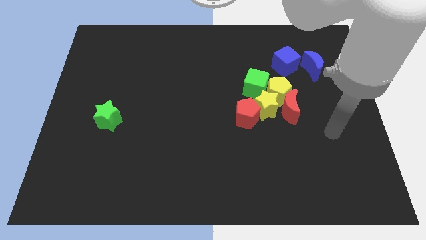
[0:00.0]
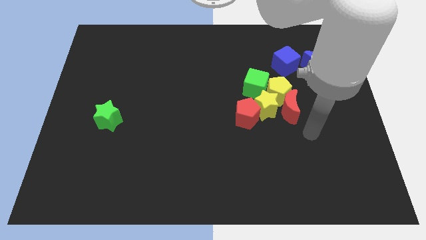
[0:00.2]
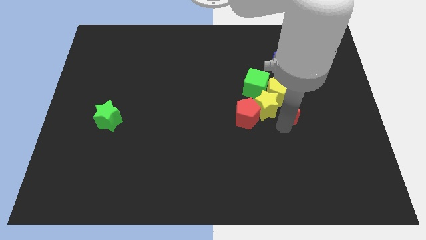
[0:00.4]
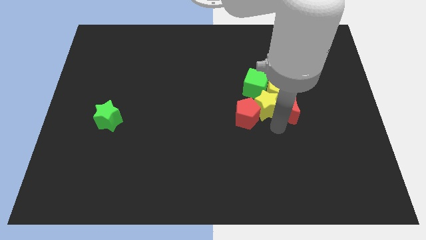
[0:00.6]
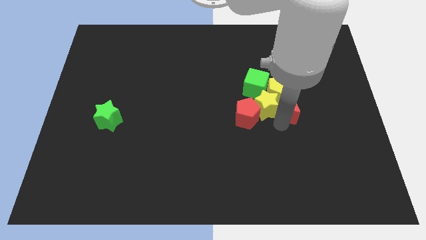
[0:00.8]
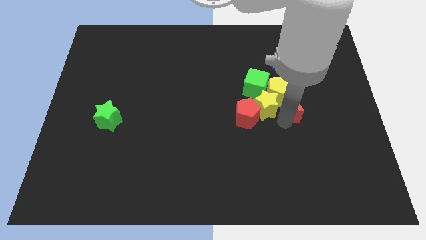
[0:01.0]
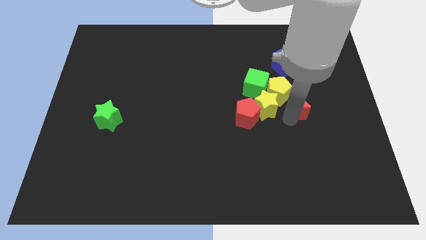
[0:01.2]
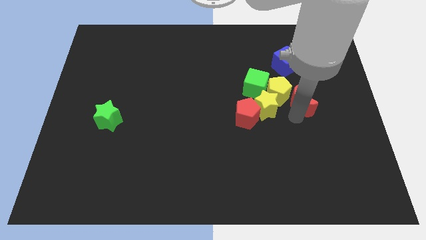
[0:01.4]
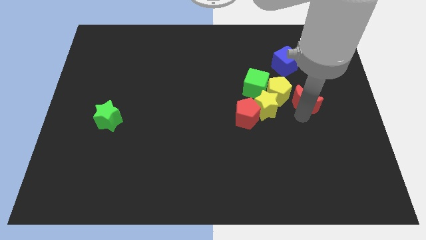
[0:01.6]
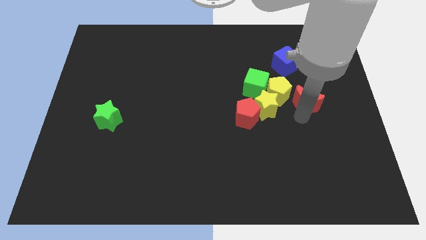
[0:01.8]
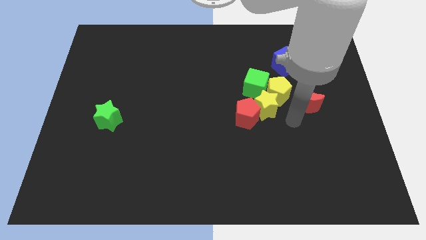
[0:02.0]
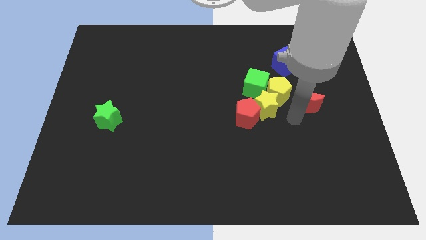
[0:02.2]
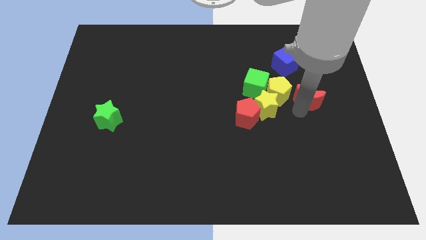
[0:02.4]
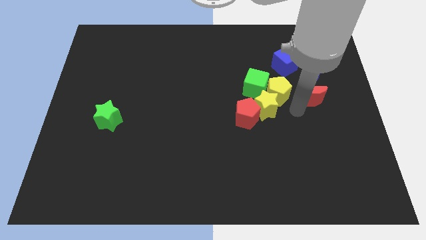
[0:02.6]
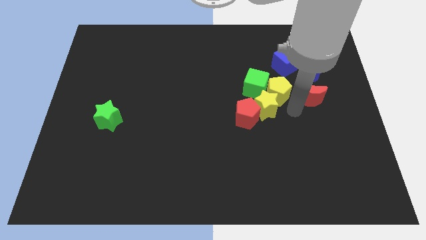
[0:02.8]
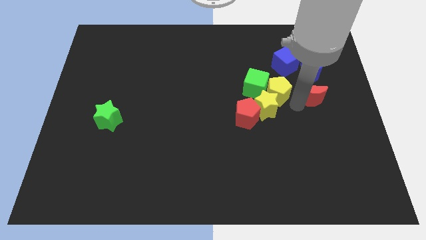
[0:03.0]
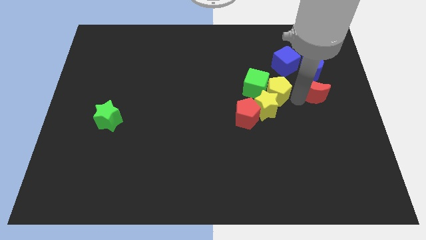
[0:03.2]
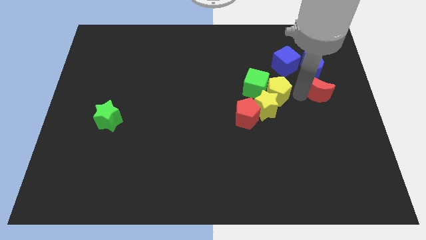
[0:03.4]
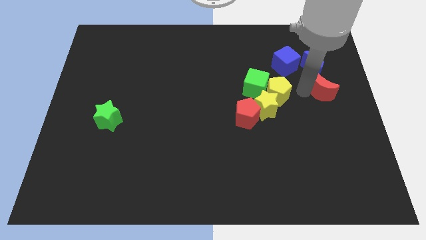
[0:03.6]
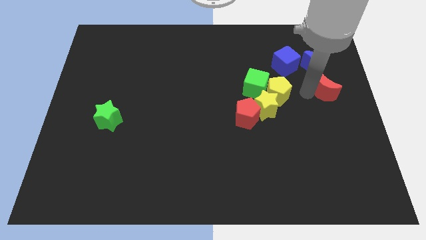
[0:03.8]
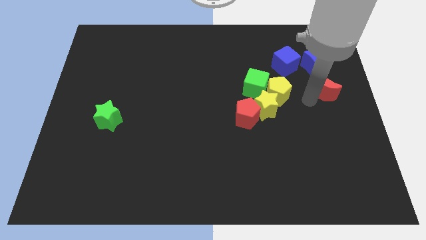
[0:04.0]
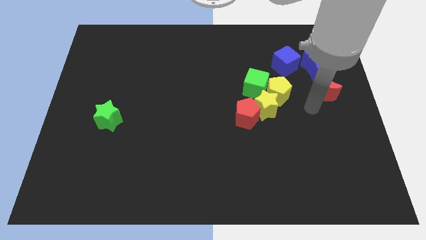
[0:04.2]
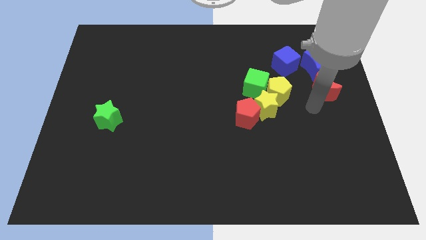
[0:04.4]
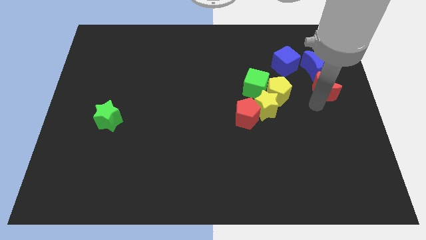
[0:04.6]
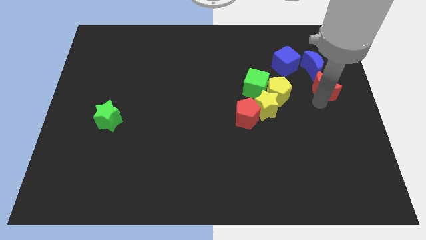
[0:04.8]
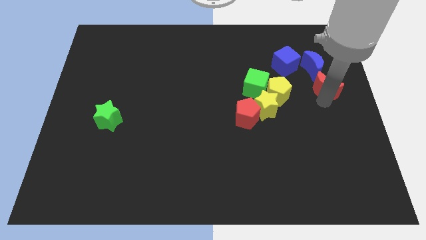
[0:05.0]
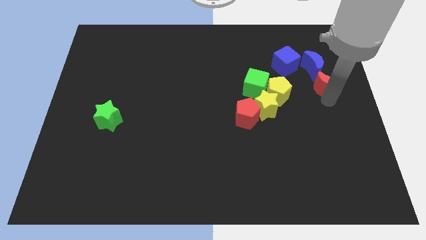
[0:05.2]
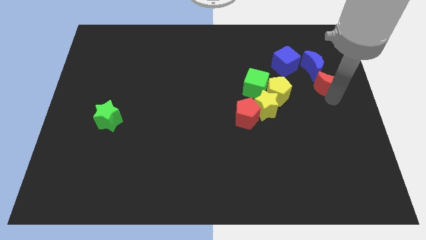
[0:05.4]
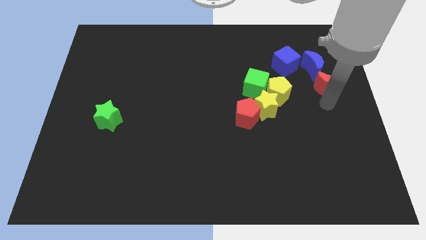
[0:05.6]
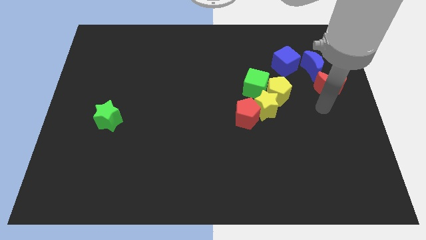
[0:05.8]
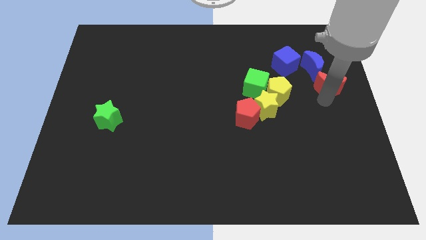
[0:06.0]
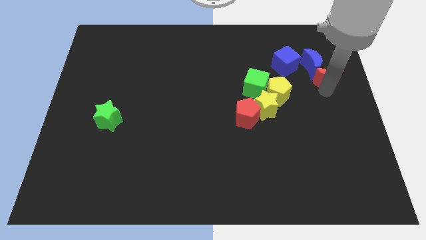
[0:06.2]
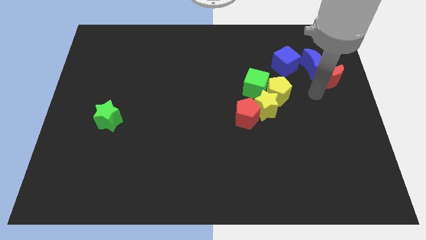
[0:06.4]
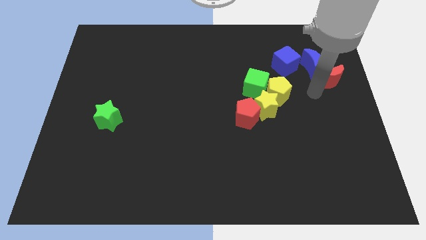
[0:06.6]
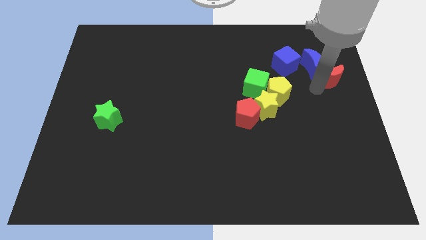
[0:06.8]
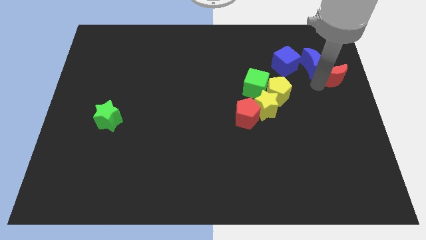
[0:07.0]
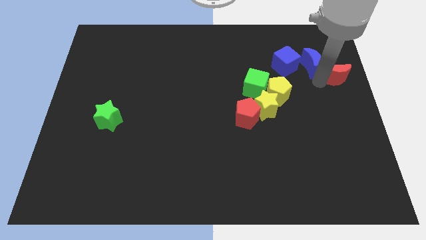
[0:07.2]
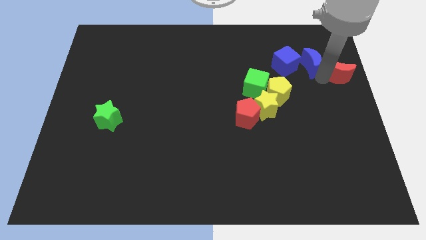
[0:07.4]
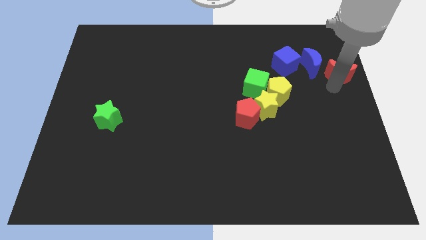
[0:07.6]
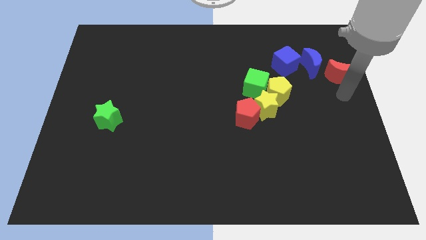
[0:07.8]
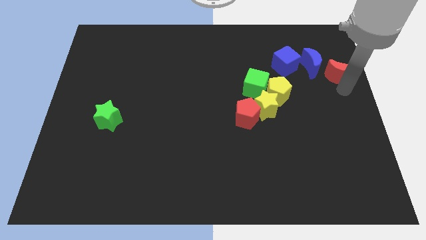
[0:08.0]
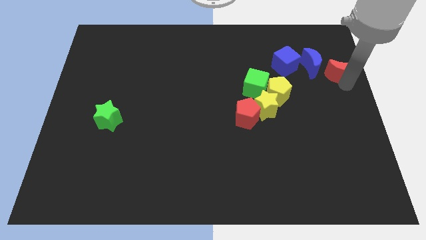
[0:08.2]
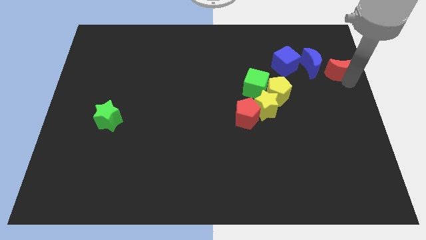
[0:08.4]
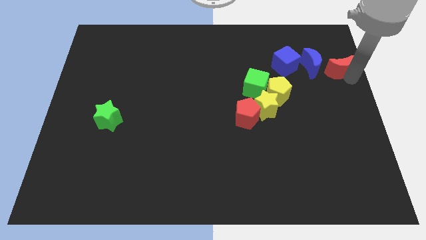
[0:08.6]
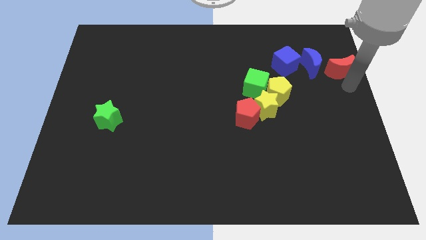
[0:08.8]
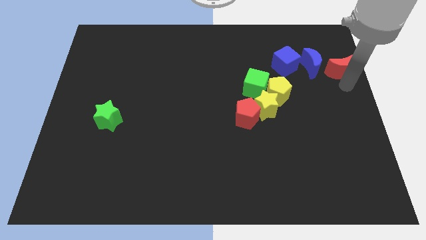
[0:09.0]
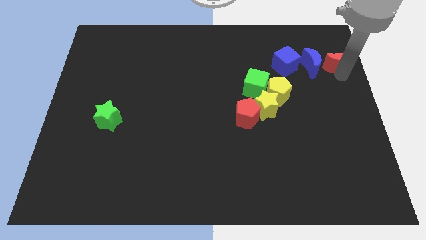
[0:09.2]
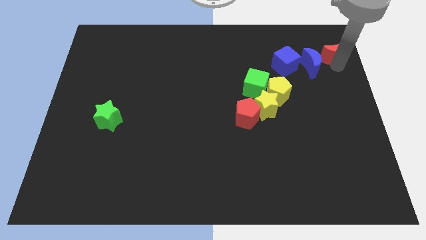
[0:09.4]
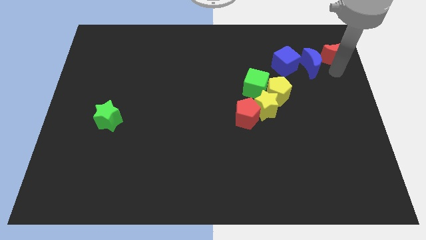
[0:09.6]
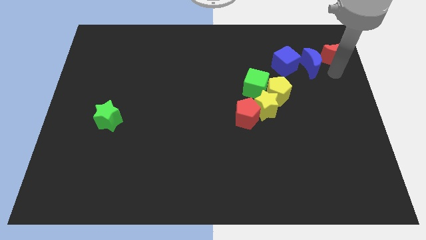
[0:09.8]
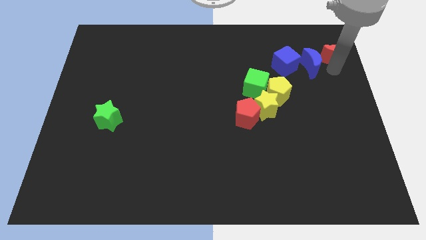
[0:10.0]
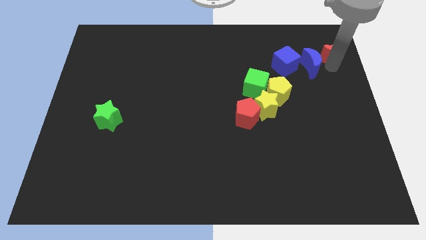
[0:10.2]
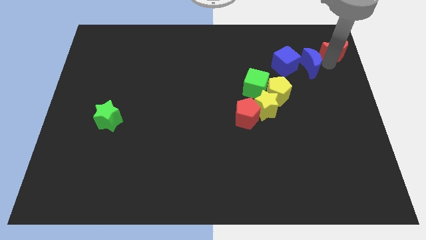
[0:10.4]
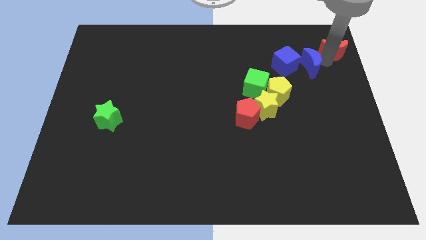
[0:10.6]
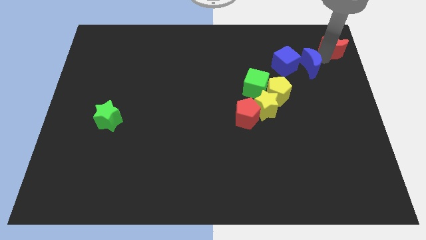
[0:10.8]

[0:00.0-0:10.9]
push the red moon to the top right of the board
